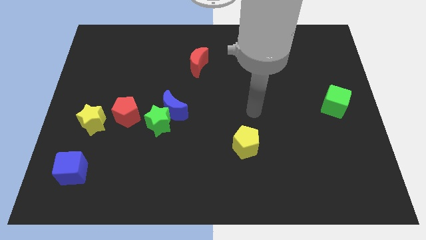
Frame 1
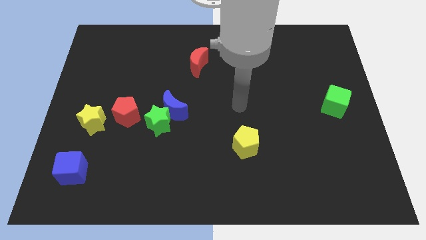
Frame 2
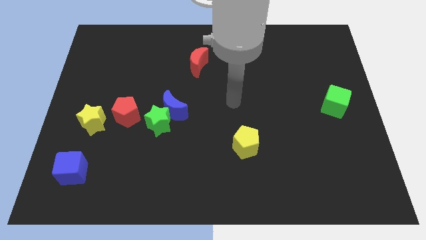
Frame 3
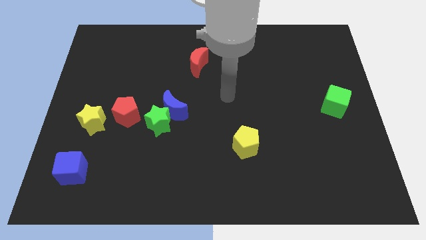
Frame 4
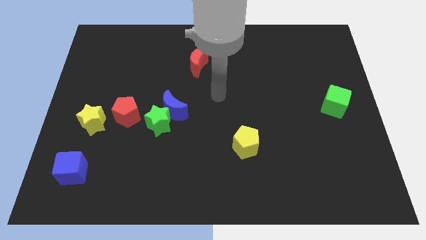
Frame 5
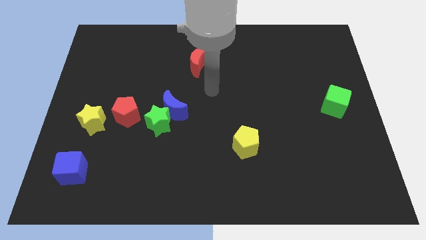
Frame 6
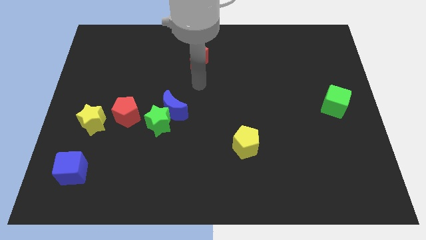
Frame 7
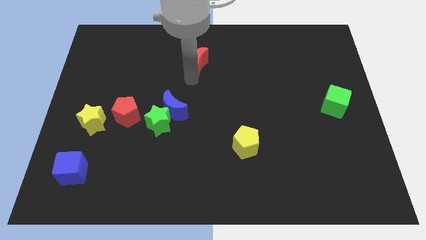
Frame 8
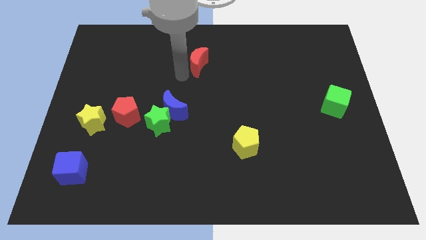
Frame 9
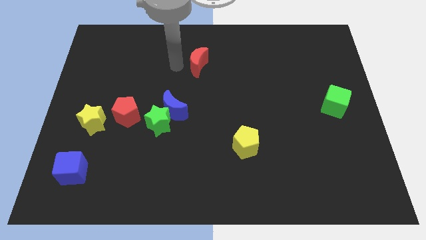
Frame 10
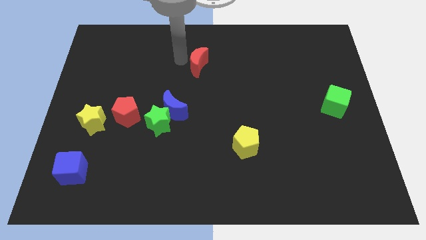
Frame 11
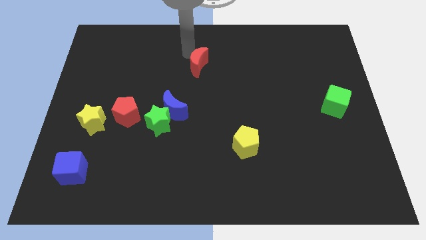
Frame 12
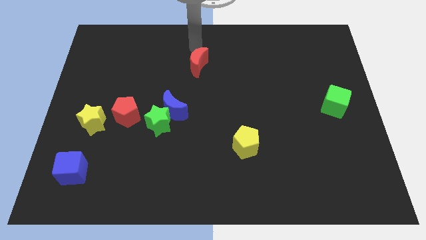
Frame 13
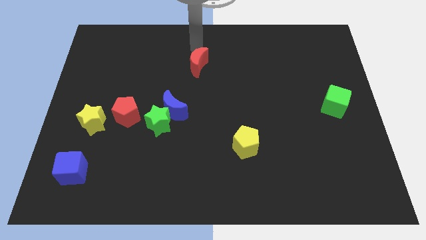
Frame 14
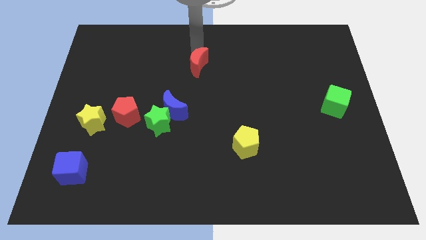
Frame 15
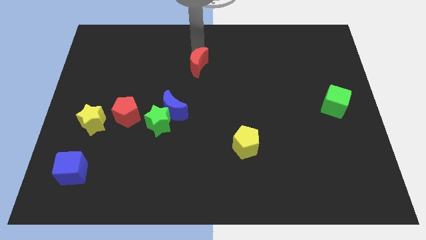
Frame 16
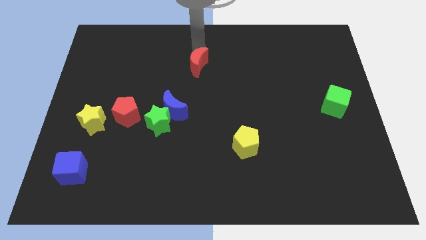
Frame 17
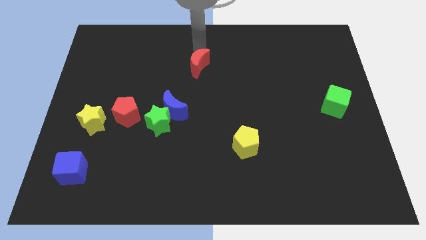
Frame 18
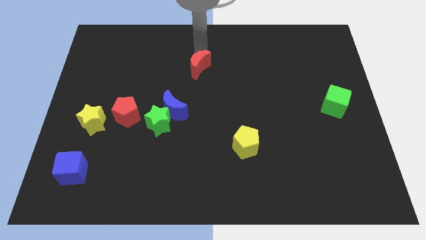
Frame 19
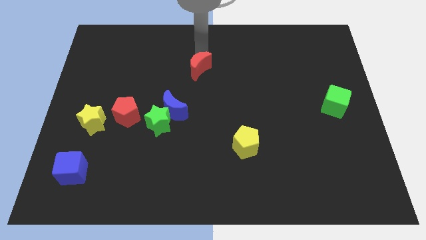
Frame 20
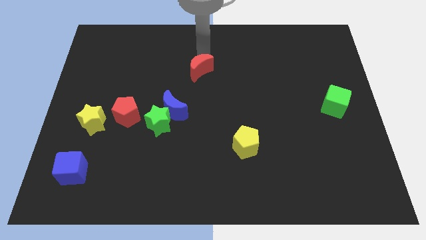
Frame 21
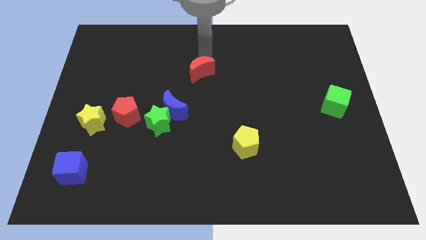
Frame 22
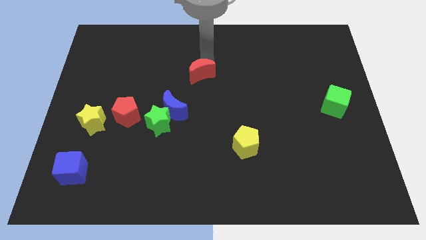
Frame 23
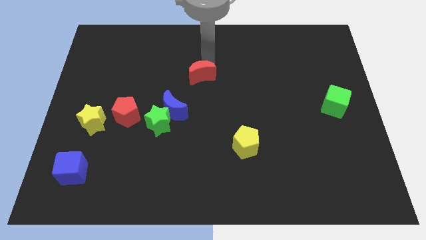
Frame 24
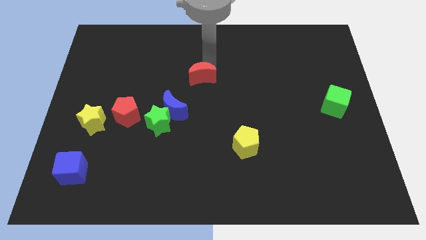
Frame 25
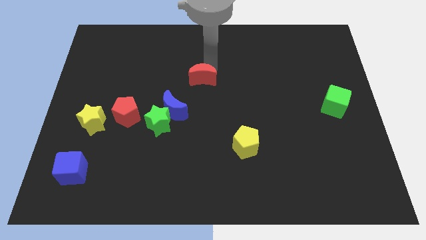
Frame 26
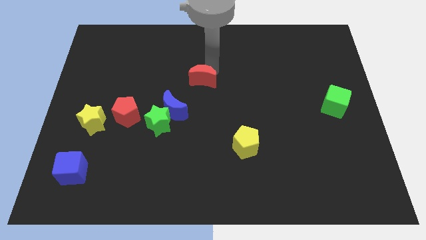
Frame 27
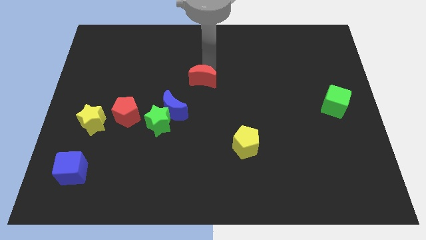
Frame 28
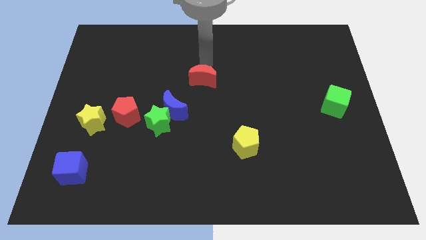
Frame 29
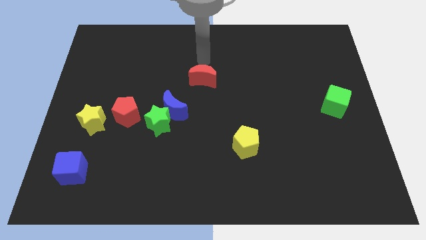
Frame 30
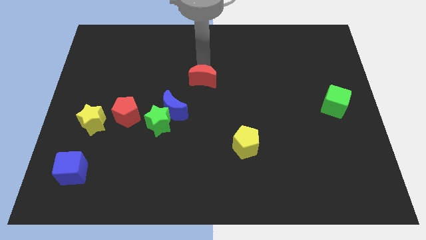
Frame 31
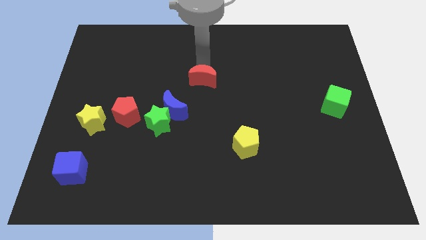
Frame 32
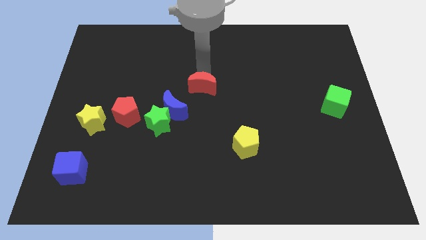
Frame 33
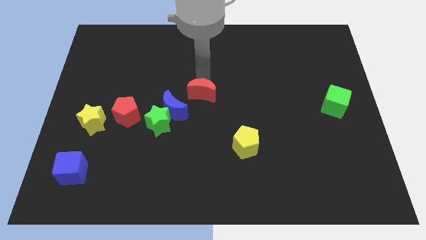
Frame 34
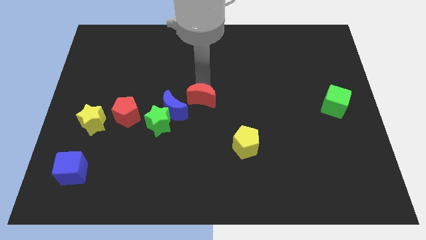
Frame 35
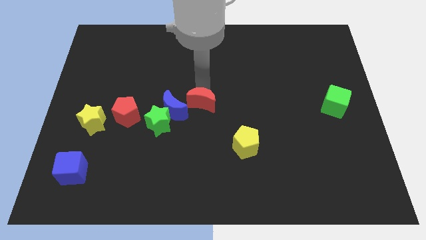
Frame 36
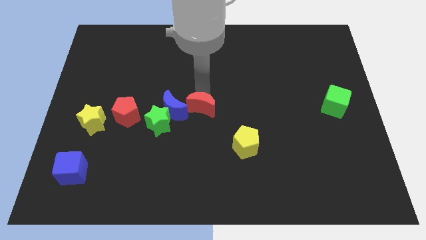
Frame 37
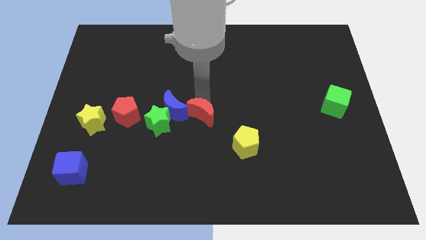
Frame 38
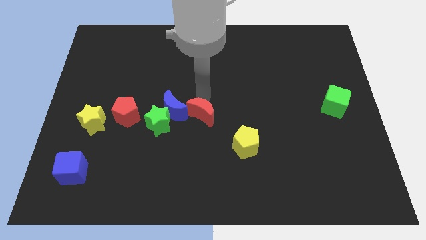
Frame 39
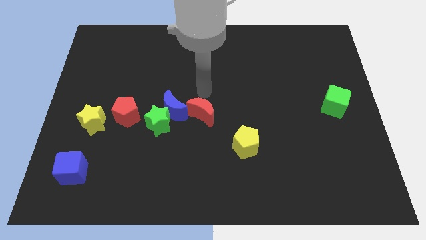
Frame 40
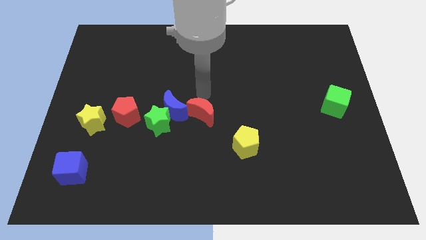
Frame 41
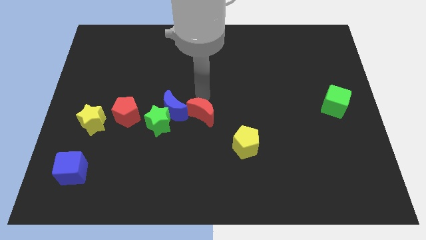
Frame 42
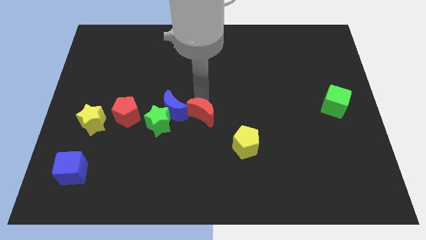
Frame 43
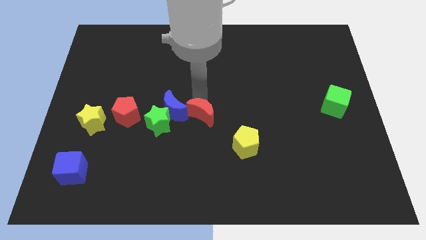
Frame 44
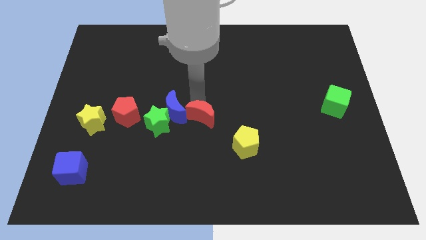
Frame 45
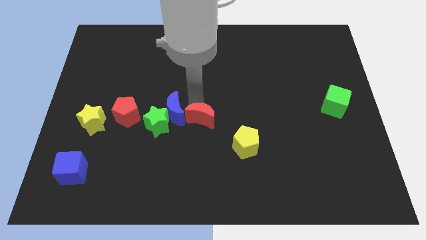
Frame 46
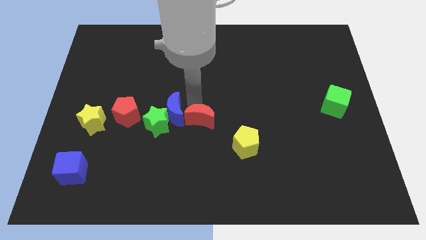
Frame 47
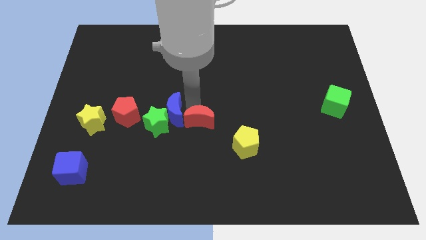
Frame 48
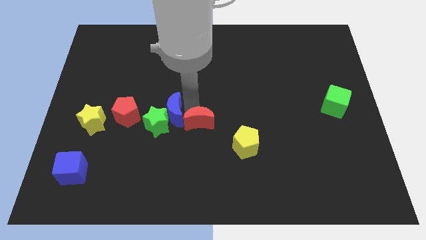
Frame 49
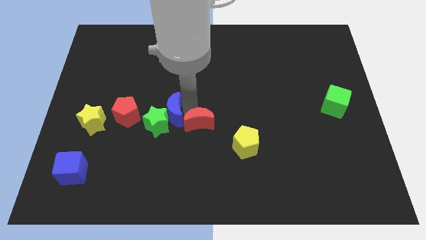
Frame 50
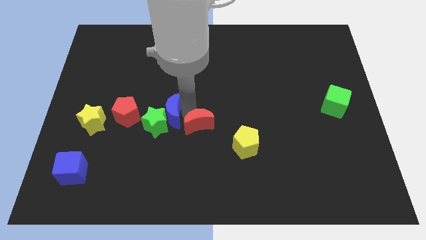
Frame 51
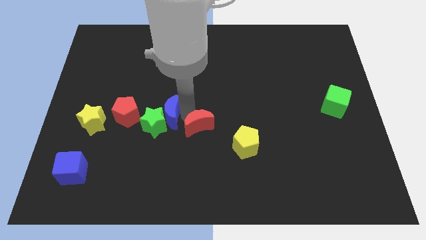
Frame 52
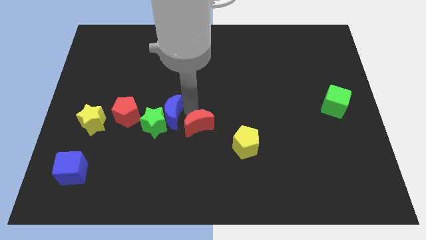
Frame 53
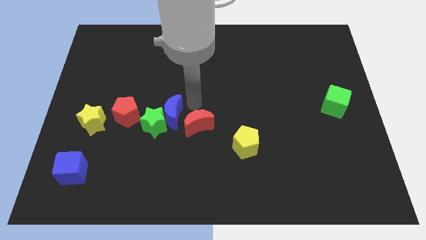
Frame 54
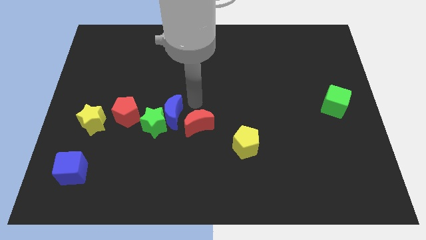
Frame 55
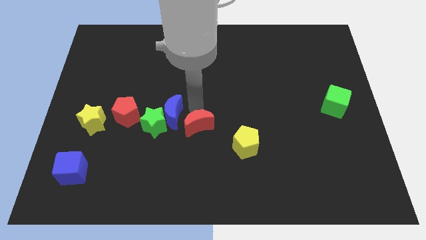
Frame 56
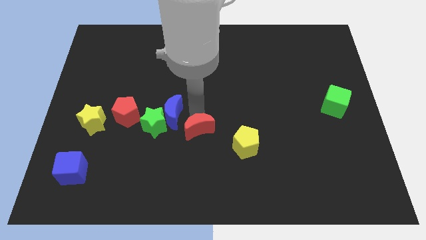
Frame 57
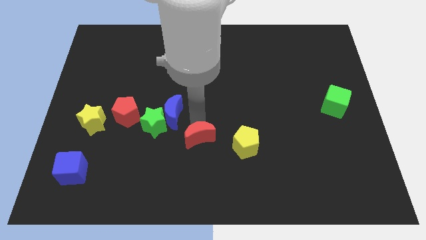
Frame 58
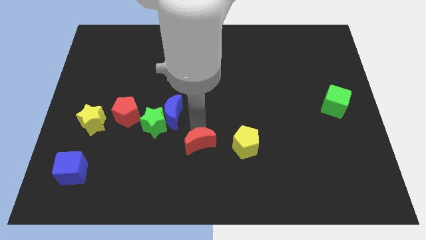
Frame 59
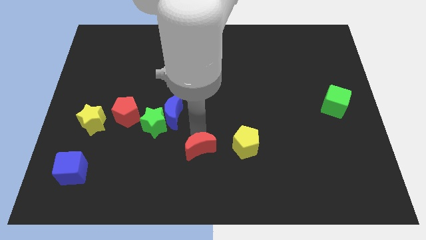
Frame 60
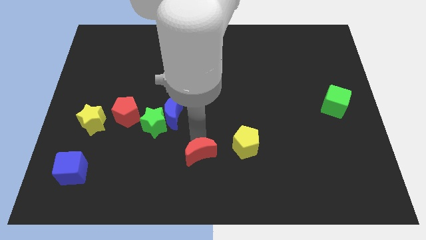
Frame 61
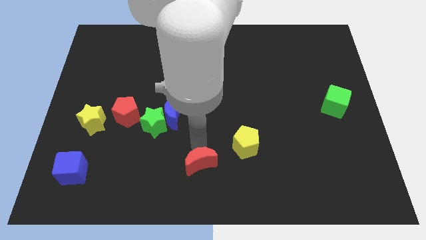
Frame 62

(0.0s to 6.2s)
push the red moon to the bottom

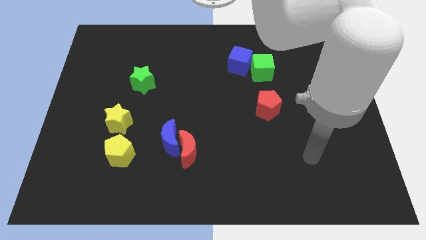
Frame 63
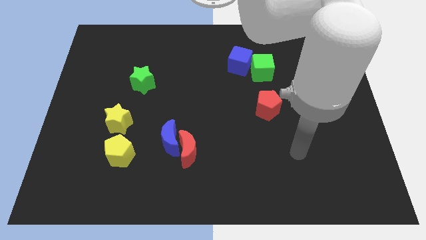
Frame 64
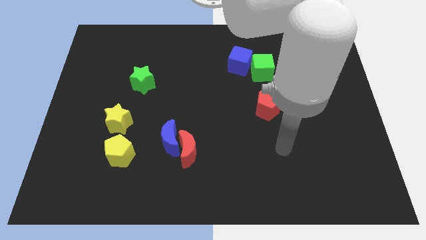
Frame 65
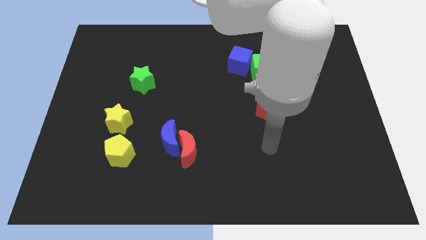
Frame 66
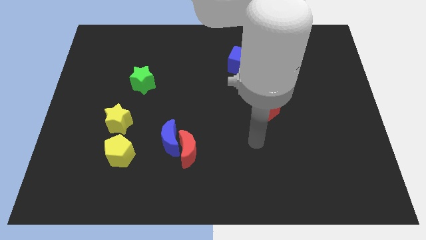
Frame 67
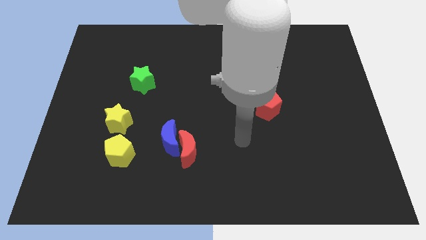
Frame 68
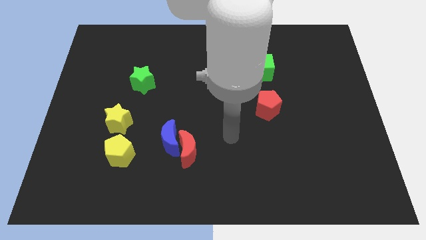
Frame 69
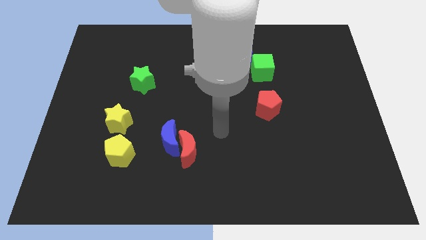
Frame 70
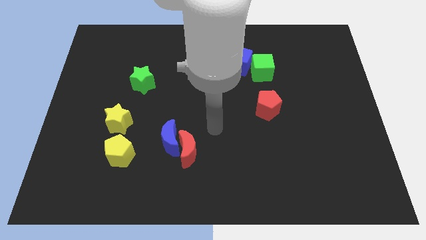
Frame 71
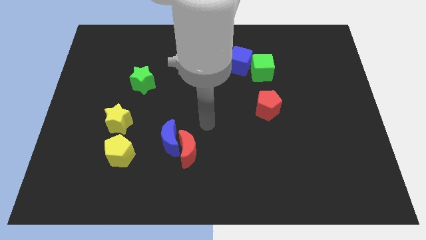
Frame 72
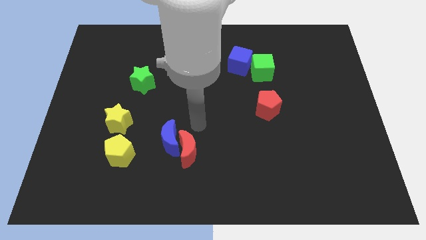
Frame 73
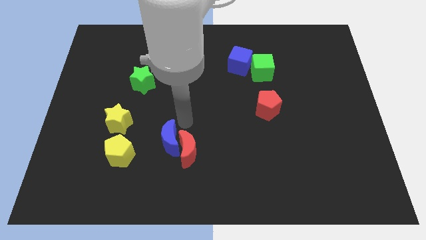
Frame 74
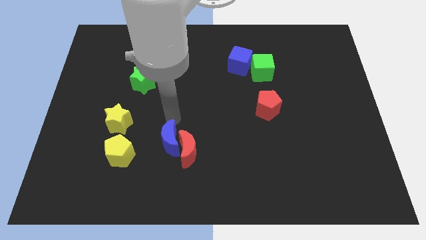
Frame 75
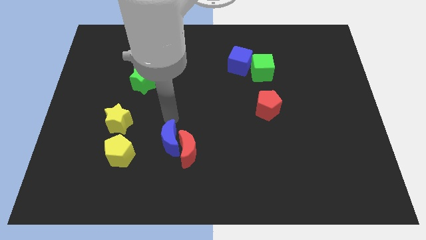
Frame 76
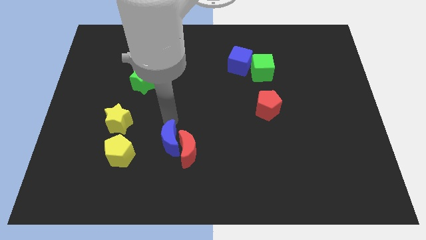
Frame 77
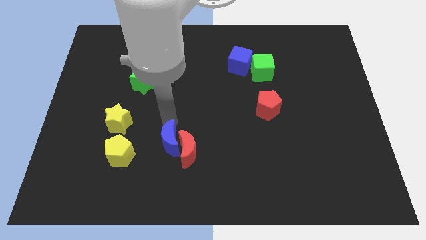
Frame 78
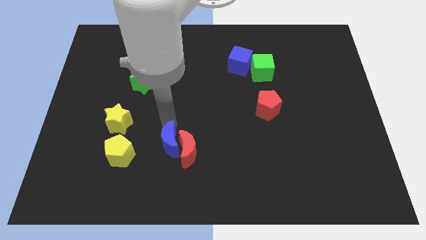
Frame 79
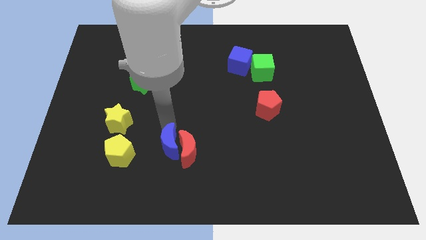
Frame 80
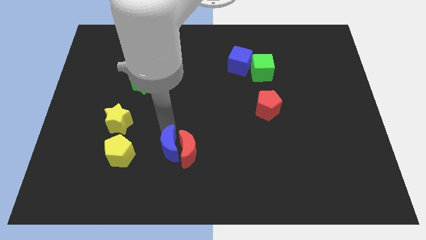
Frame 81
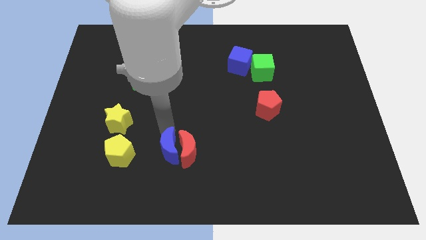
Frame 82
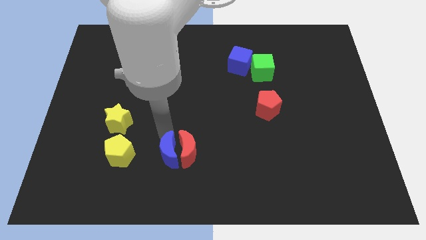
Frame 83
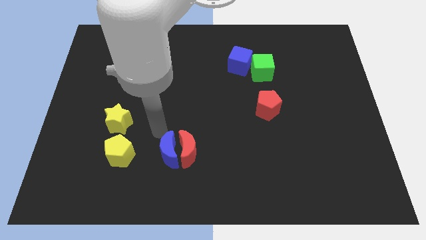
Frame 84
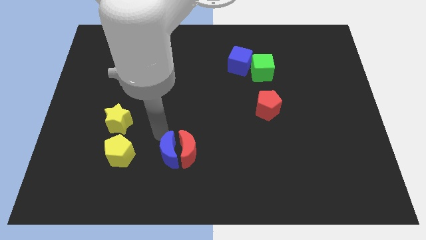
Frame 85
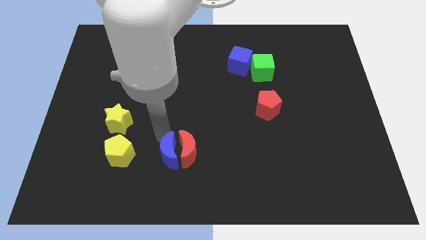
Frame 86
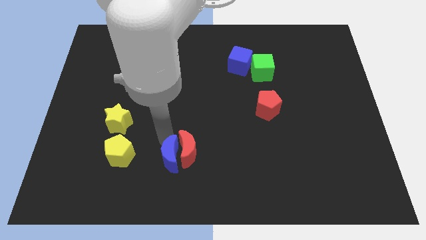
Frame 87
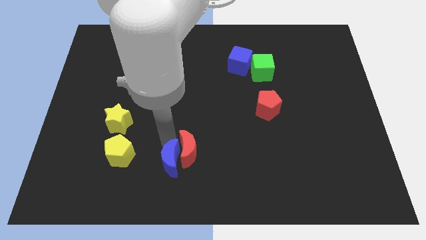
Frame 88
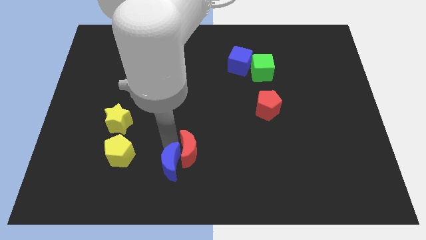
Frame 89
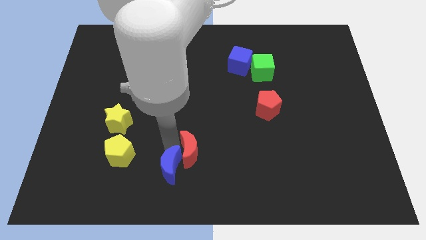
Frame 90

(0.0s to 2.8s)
move the blue moon to the bottom side
